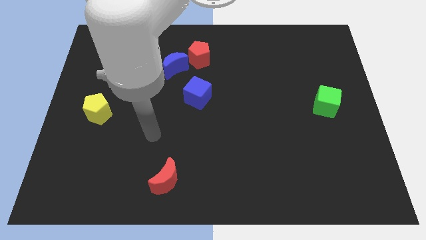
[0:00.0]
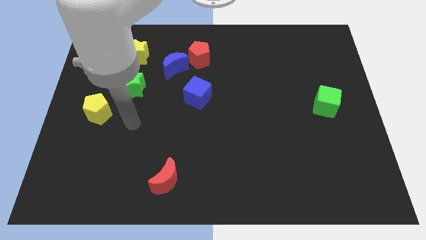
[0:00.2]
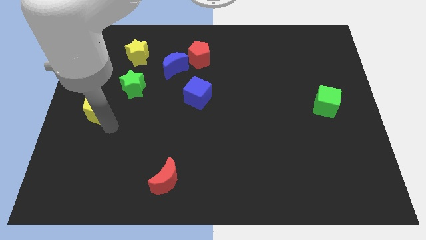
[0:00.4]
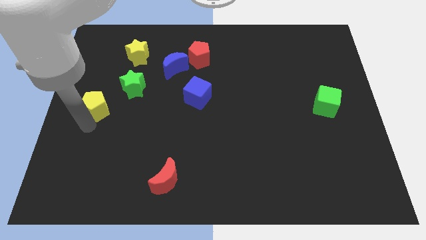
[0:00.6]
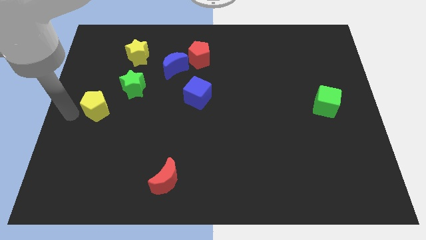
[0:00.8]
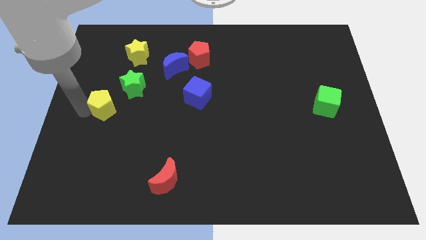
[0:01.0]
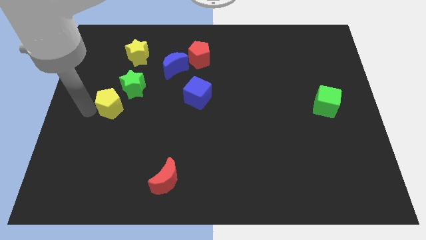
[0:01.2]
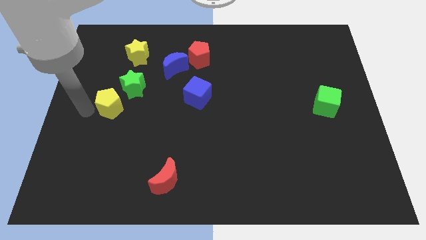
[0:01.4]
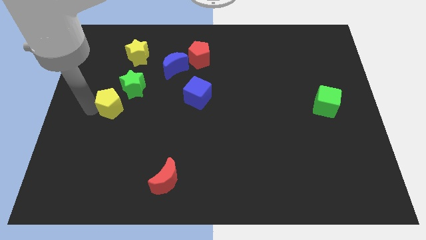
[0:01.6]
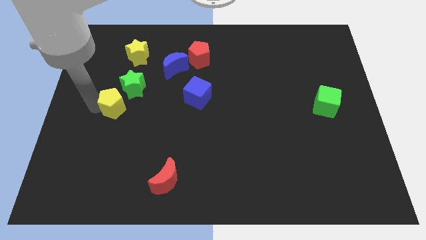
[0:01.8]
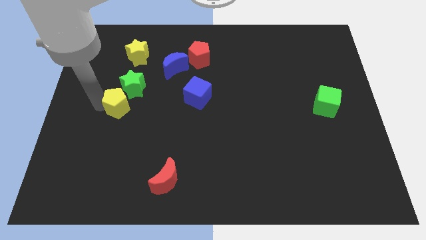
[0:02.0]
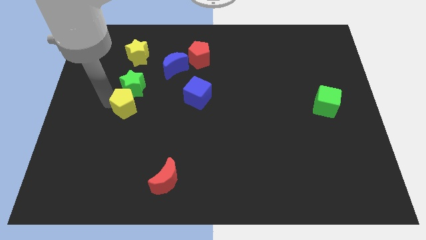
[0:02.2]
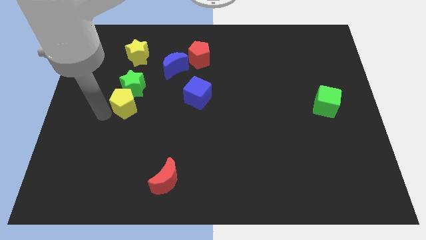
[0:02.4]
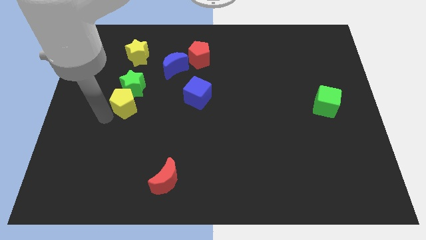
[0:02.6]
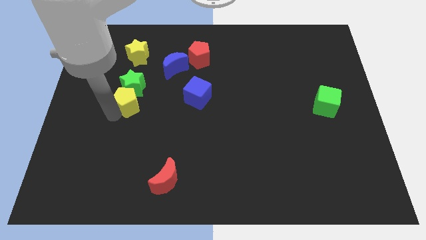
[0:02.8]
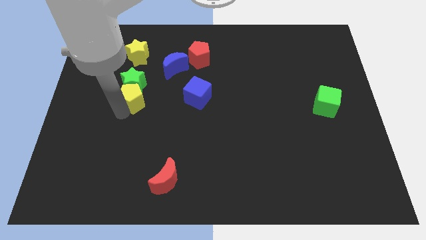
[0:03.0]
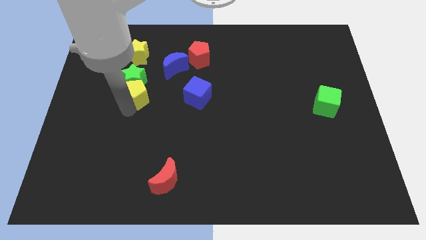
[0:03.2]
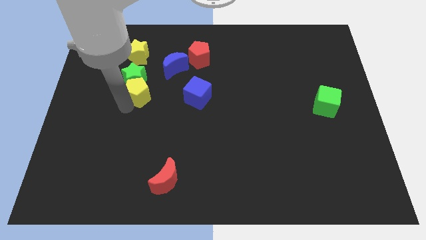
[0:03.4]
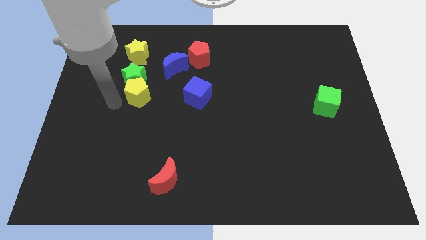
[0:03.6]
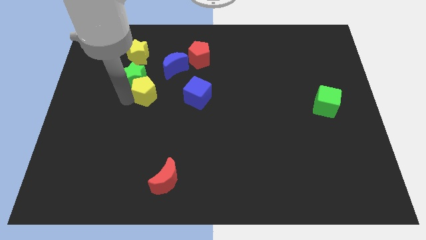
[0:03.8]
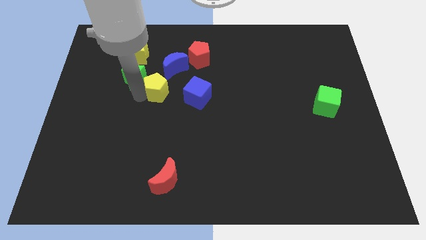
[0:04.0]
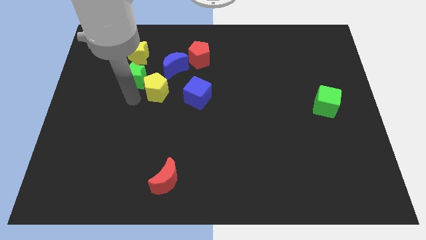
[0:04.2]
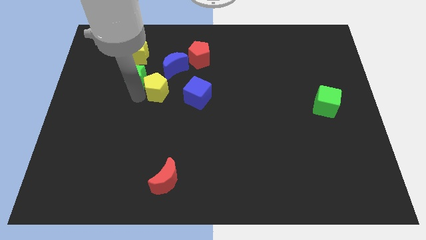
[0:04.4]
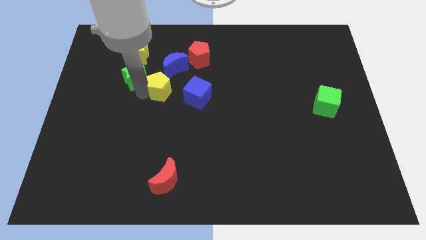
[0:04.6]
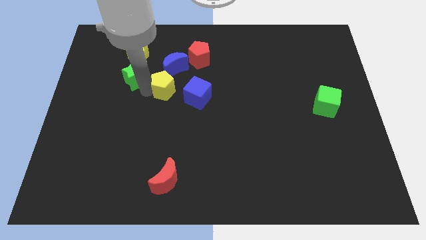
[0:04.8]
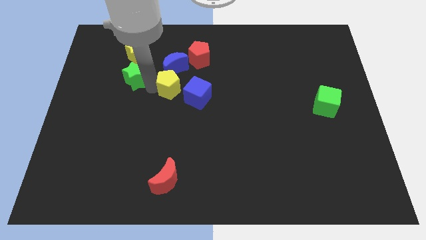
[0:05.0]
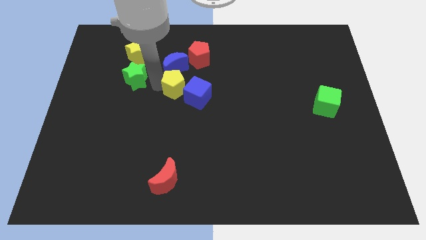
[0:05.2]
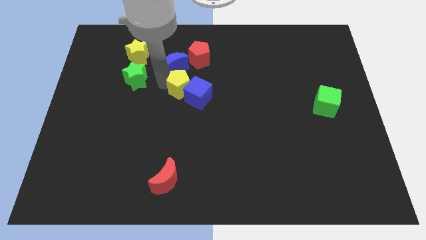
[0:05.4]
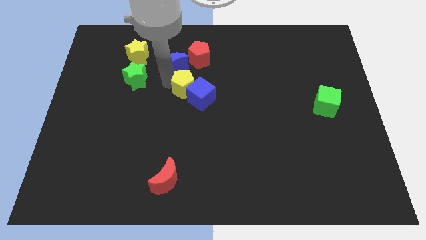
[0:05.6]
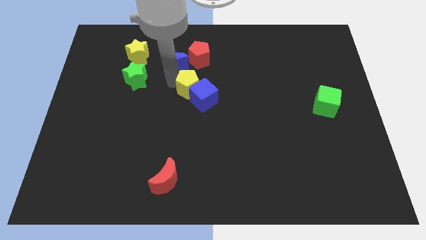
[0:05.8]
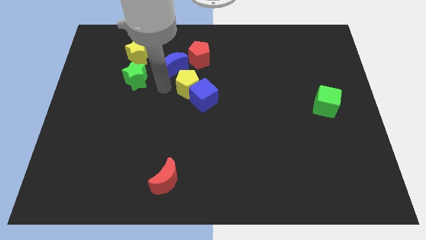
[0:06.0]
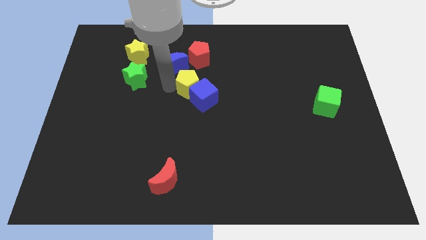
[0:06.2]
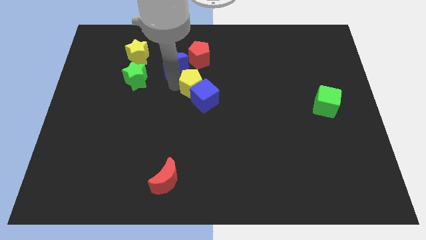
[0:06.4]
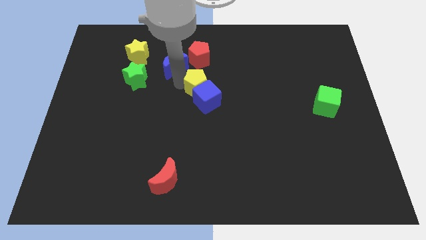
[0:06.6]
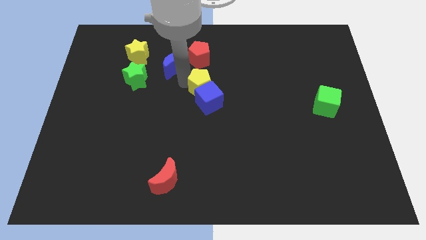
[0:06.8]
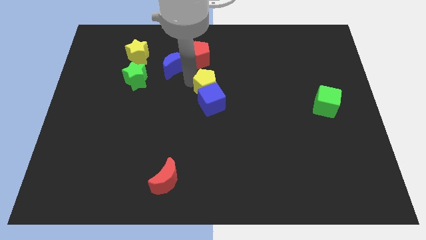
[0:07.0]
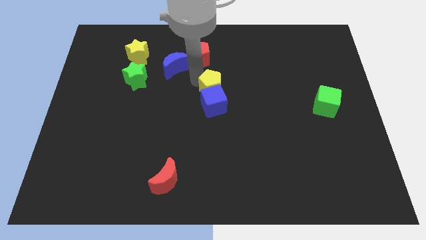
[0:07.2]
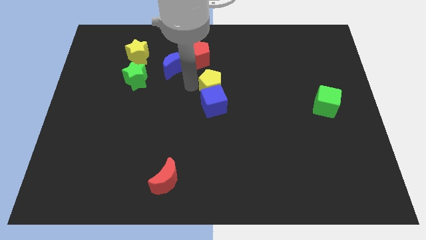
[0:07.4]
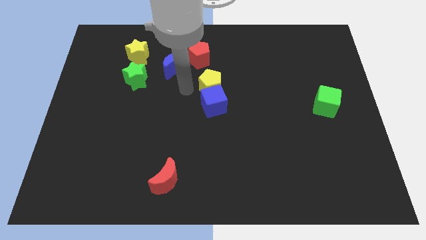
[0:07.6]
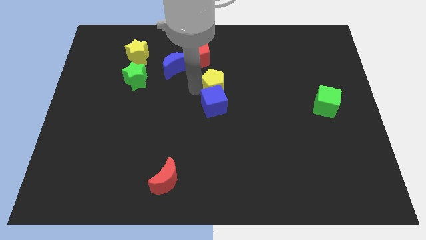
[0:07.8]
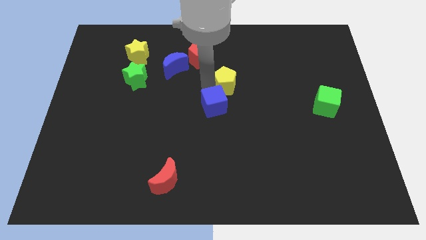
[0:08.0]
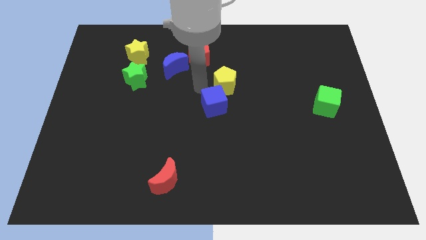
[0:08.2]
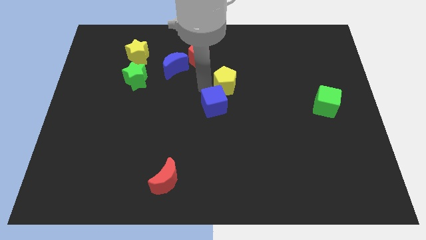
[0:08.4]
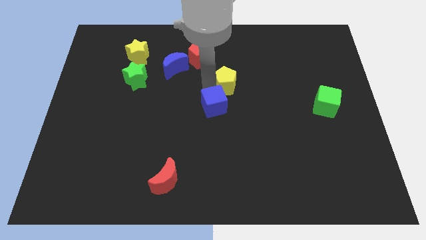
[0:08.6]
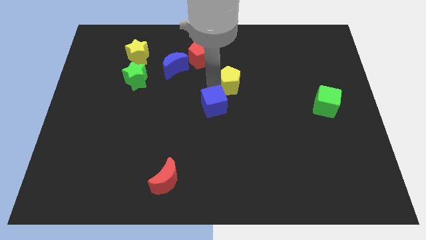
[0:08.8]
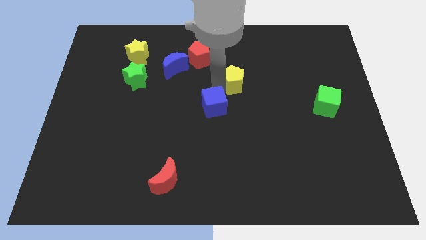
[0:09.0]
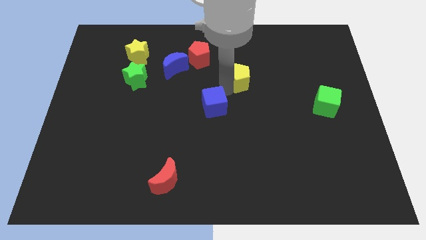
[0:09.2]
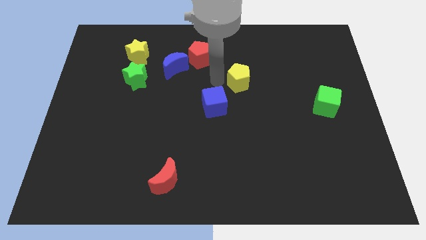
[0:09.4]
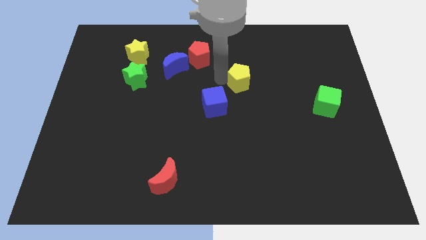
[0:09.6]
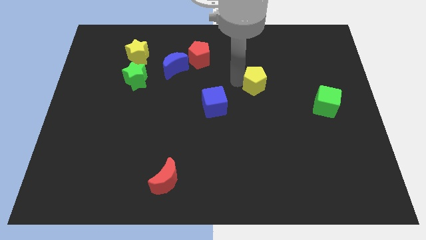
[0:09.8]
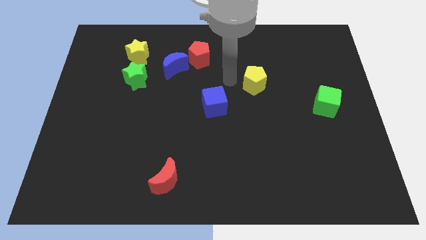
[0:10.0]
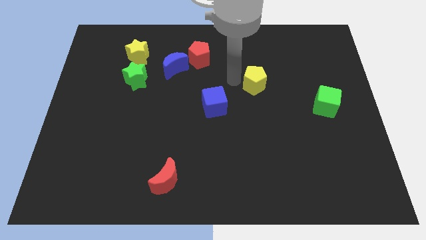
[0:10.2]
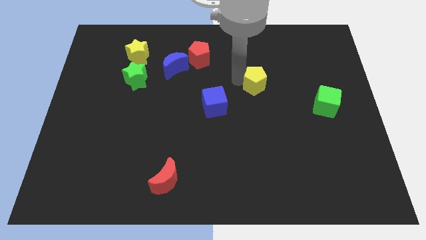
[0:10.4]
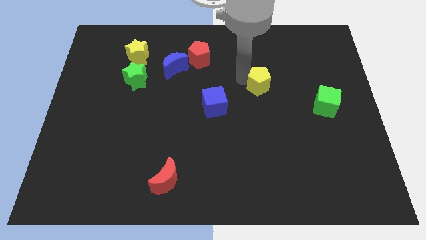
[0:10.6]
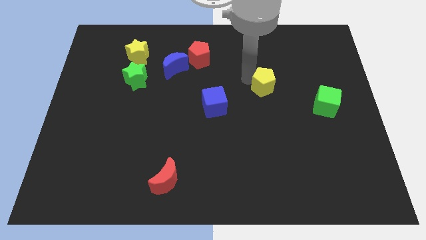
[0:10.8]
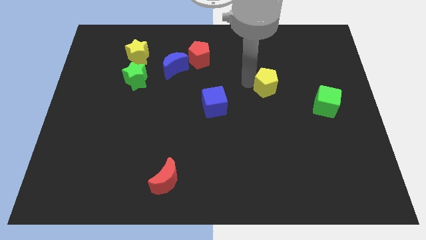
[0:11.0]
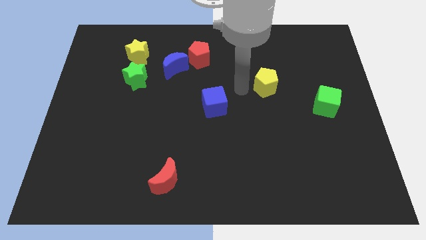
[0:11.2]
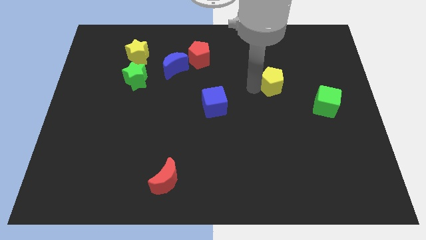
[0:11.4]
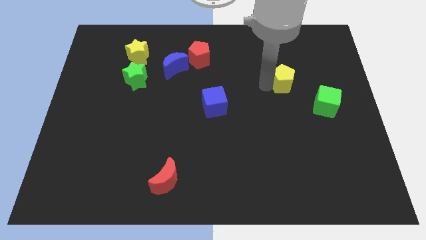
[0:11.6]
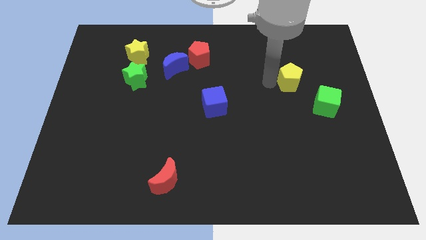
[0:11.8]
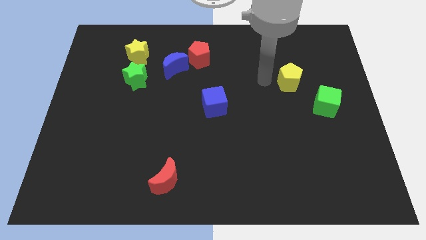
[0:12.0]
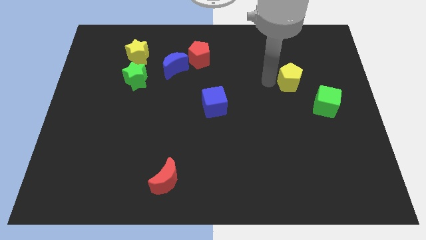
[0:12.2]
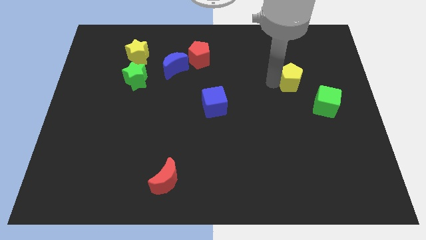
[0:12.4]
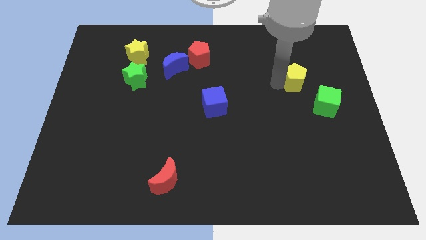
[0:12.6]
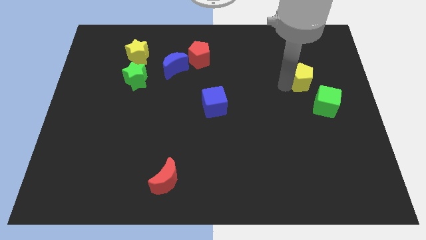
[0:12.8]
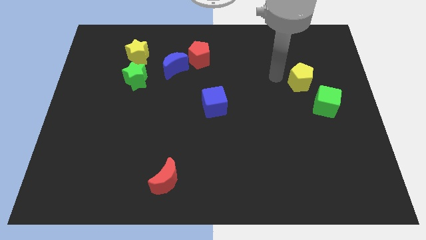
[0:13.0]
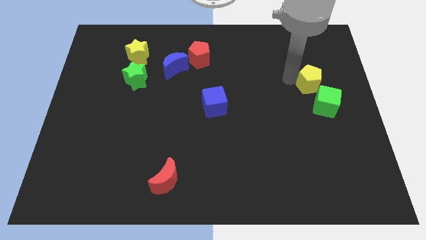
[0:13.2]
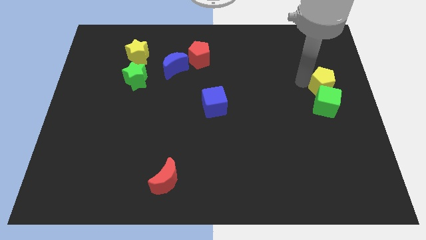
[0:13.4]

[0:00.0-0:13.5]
push the yellow pentagon to the right side of the board
